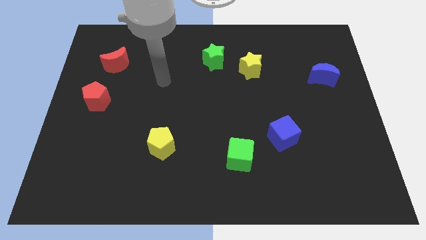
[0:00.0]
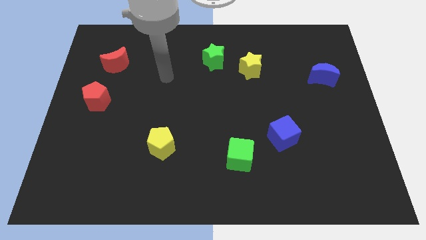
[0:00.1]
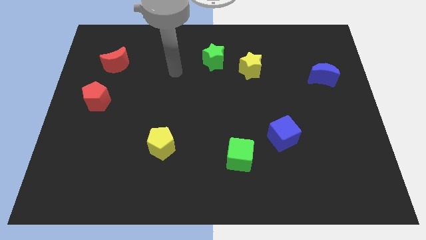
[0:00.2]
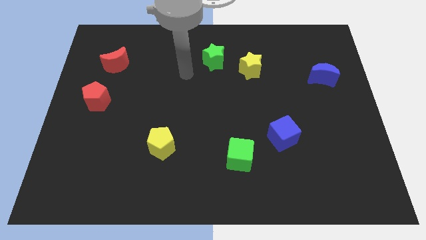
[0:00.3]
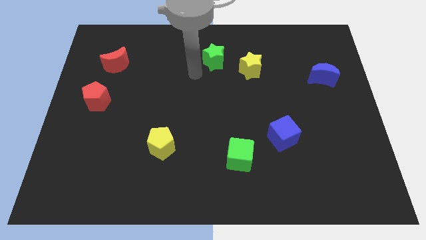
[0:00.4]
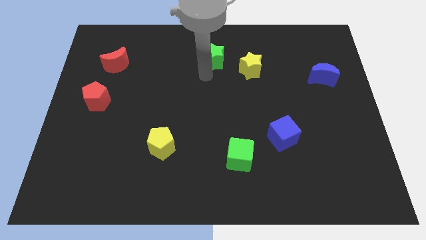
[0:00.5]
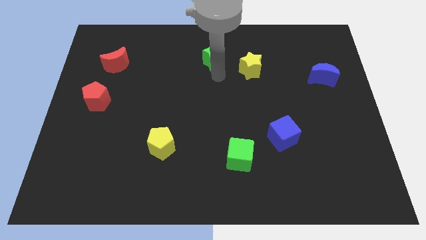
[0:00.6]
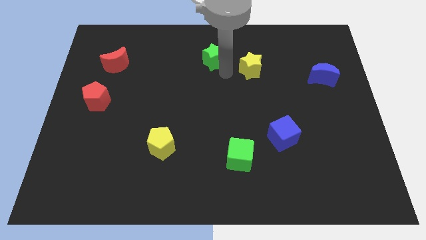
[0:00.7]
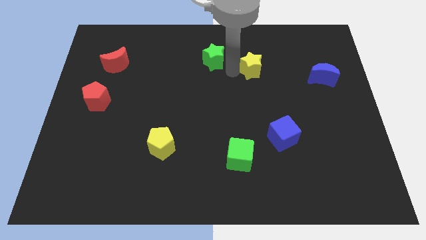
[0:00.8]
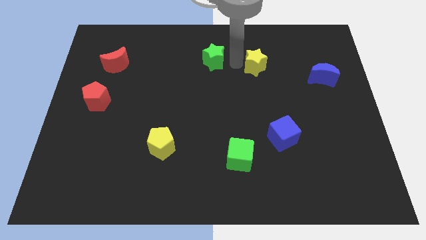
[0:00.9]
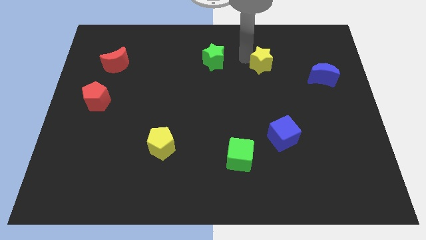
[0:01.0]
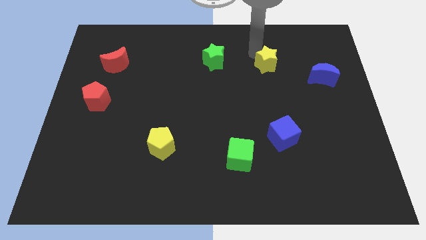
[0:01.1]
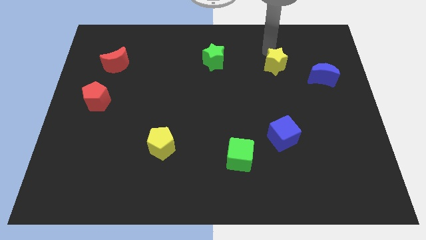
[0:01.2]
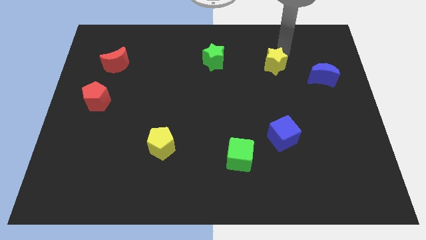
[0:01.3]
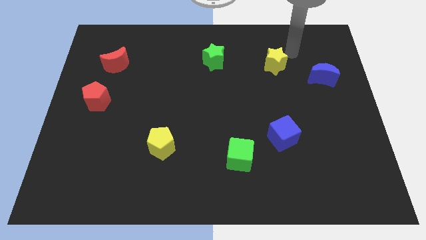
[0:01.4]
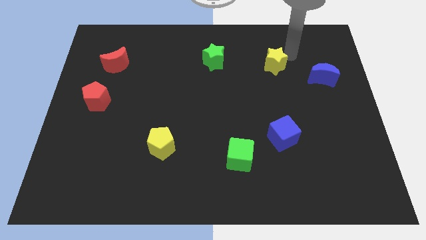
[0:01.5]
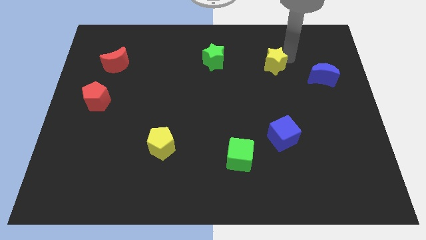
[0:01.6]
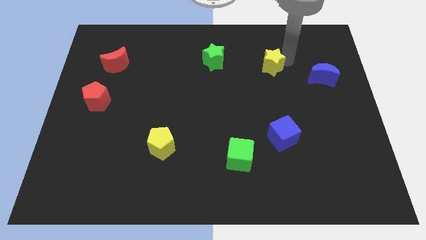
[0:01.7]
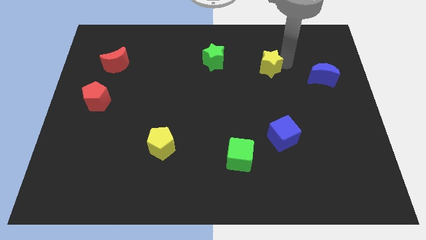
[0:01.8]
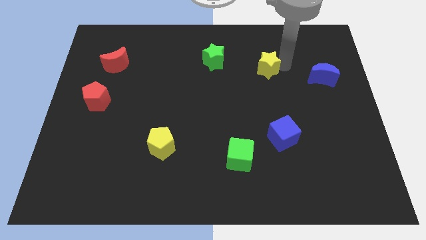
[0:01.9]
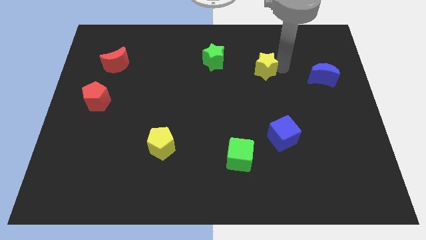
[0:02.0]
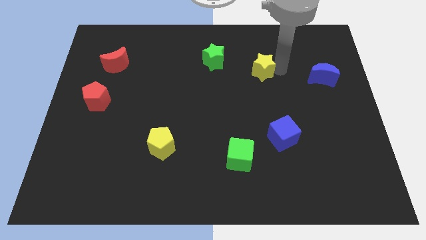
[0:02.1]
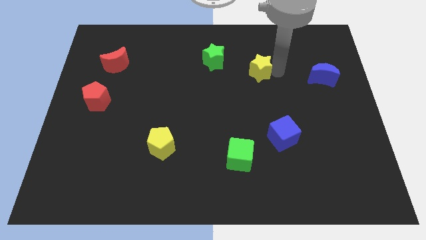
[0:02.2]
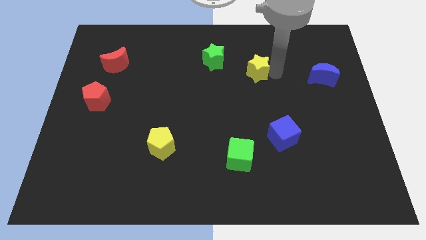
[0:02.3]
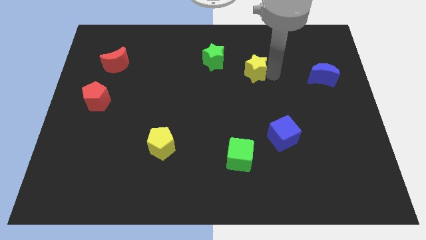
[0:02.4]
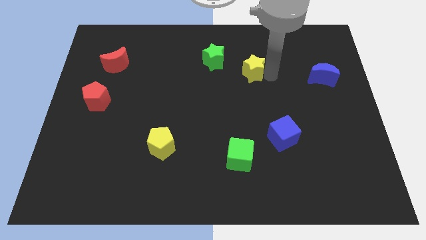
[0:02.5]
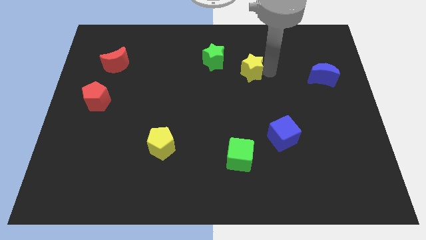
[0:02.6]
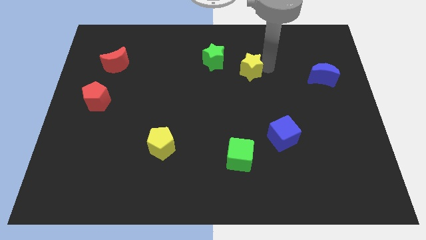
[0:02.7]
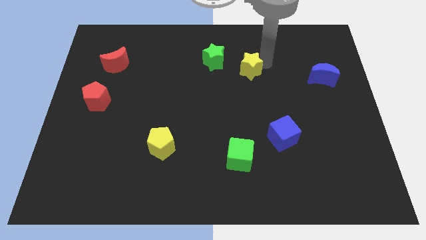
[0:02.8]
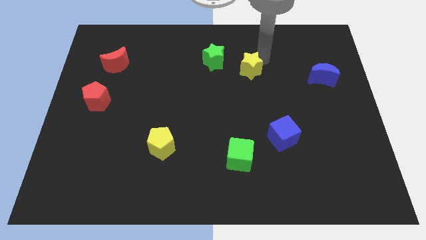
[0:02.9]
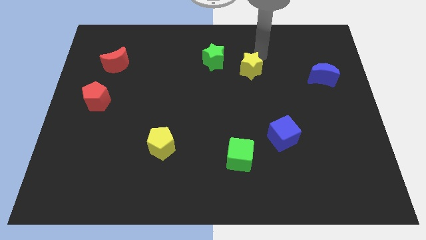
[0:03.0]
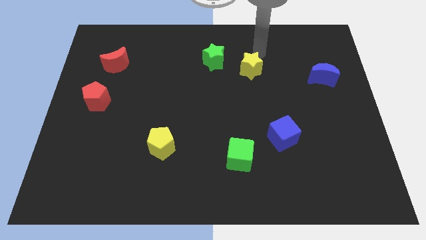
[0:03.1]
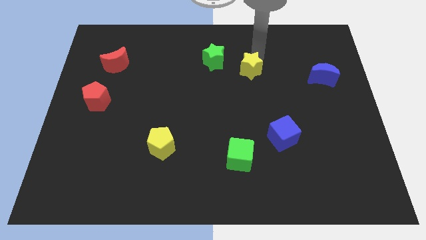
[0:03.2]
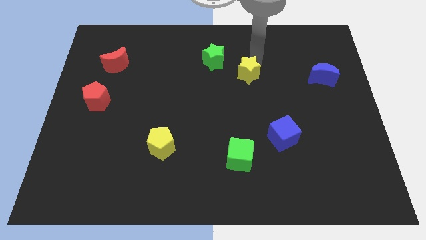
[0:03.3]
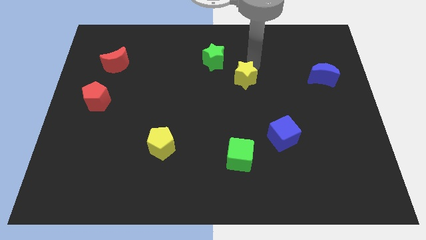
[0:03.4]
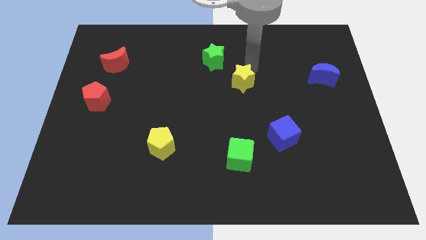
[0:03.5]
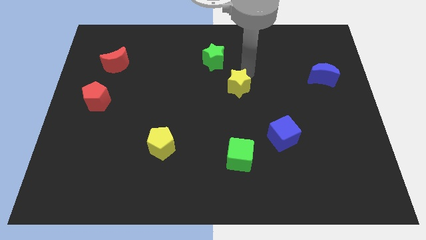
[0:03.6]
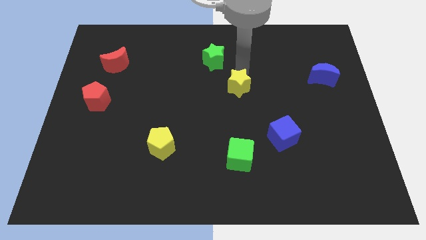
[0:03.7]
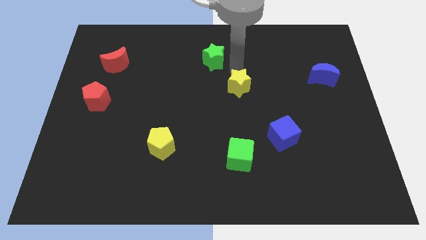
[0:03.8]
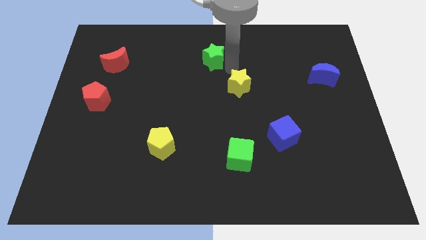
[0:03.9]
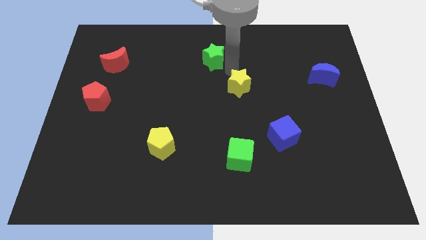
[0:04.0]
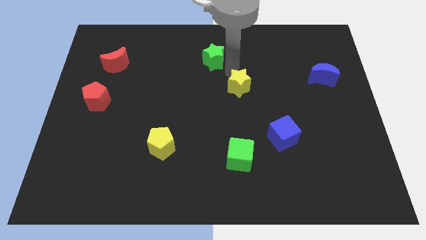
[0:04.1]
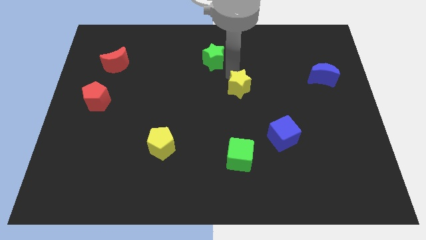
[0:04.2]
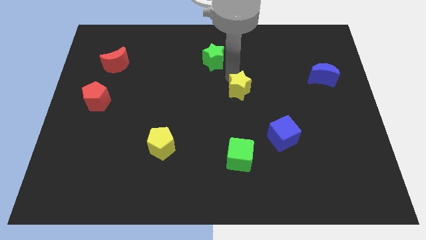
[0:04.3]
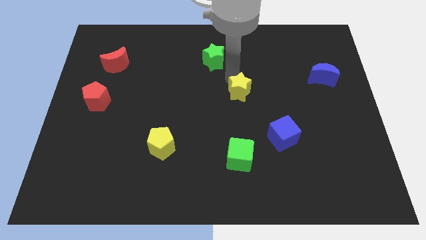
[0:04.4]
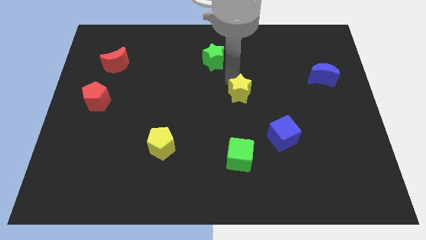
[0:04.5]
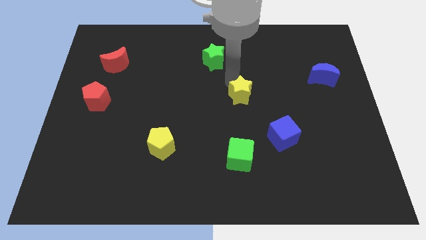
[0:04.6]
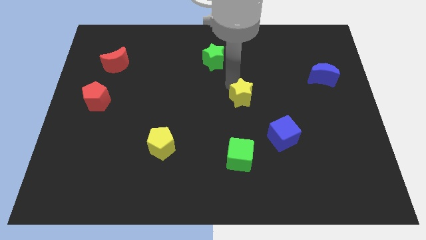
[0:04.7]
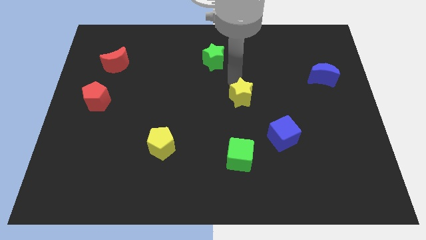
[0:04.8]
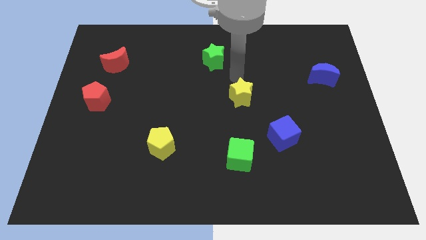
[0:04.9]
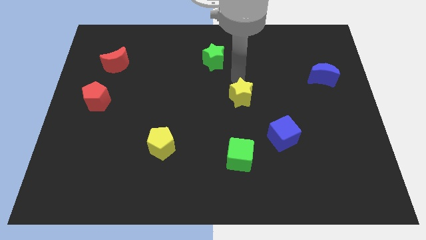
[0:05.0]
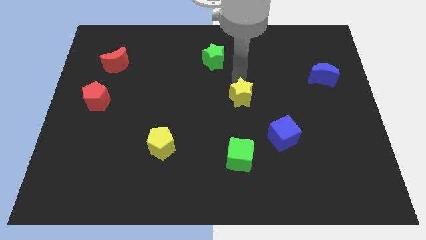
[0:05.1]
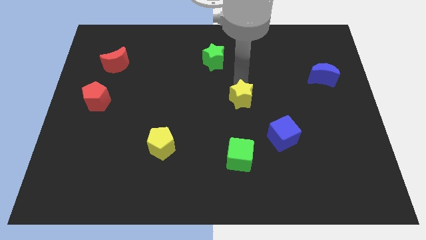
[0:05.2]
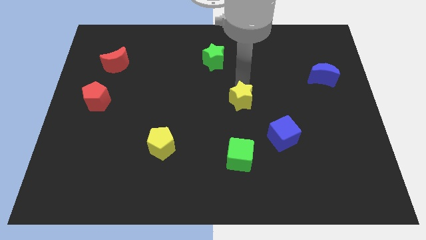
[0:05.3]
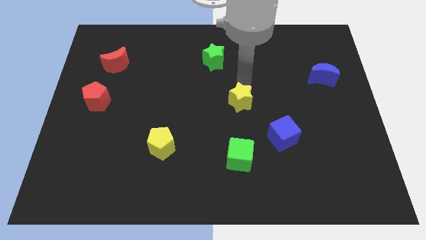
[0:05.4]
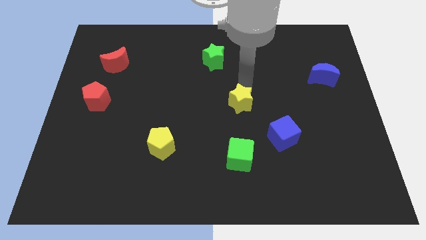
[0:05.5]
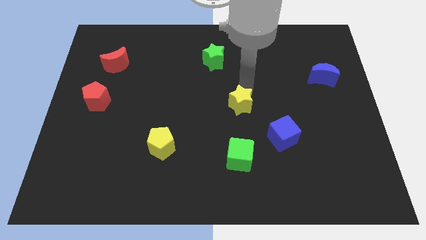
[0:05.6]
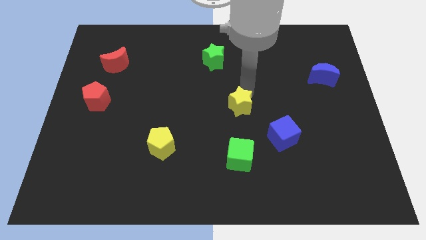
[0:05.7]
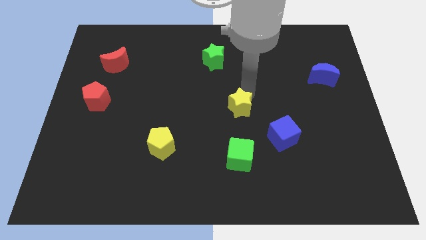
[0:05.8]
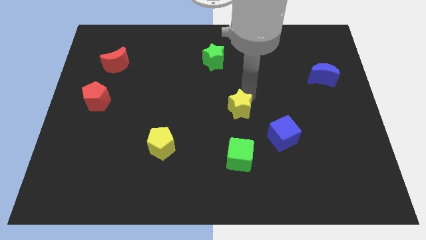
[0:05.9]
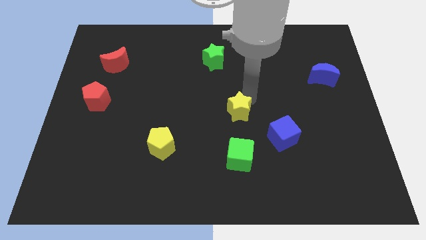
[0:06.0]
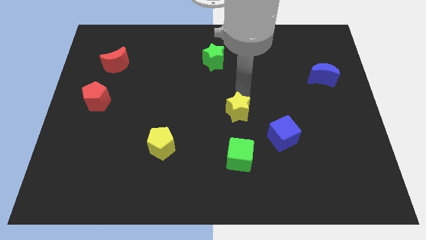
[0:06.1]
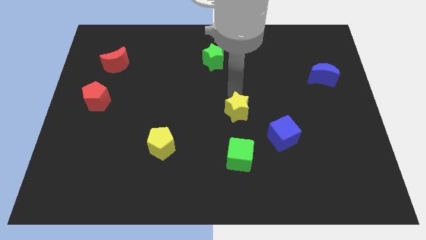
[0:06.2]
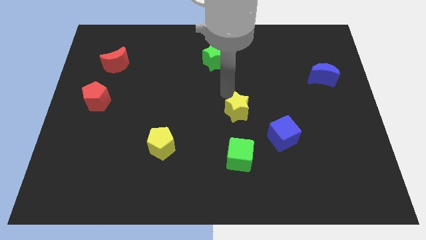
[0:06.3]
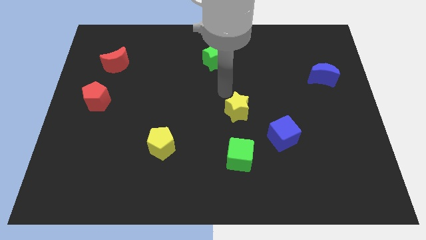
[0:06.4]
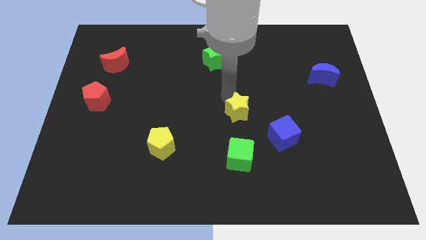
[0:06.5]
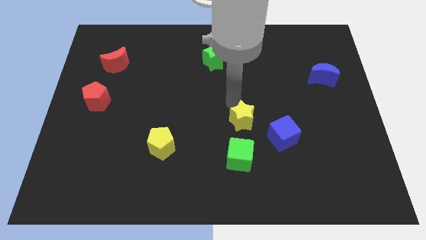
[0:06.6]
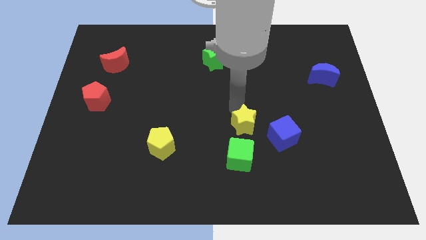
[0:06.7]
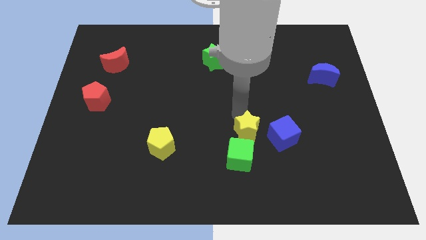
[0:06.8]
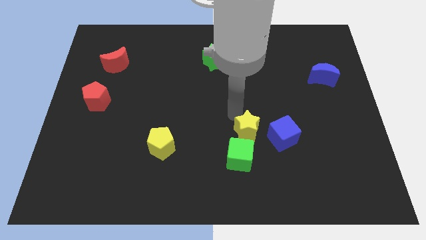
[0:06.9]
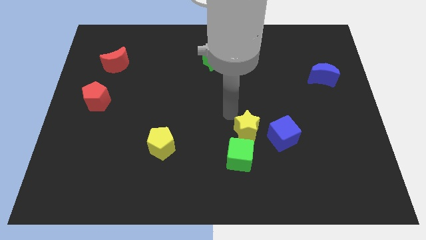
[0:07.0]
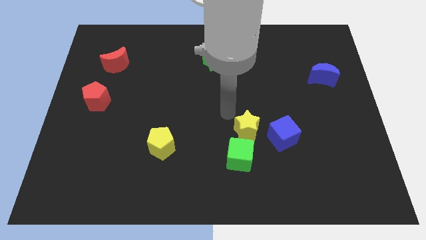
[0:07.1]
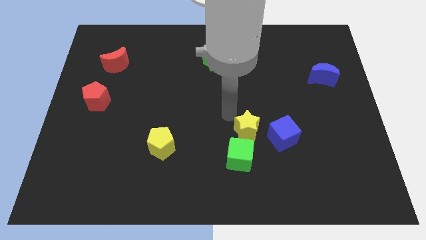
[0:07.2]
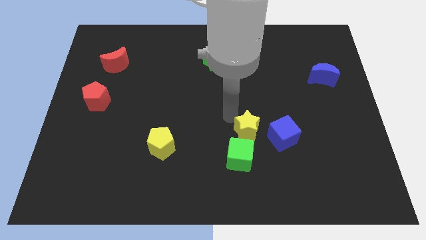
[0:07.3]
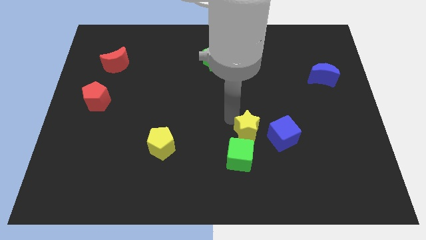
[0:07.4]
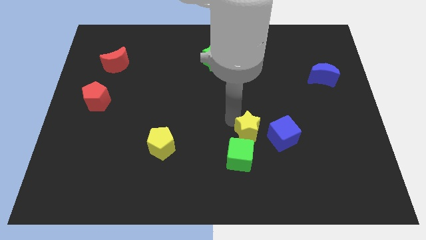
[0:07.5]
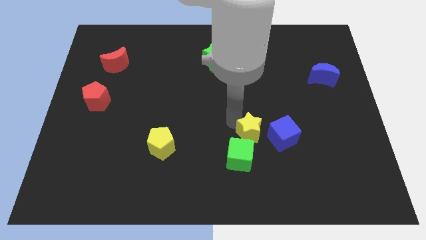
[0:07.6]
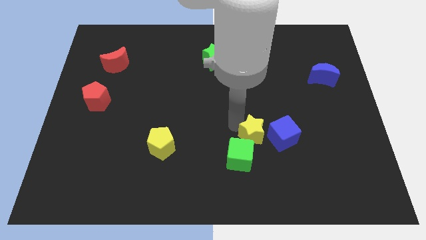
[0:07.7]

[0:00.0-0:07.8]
slide the yellow star down

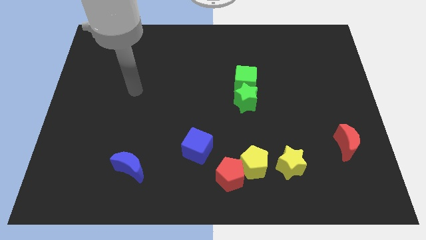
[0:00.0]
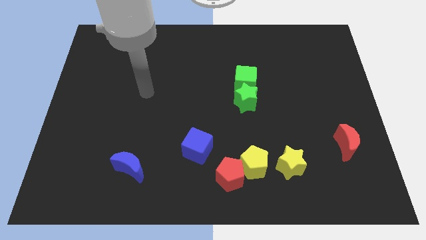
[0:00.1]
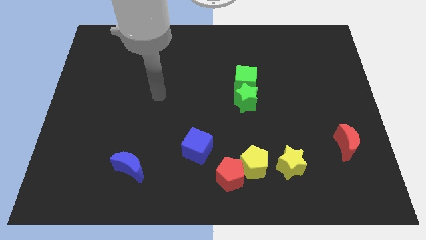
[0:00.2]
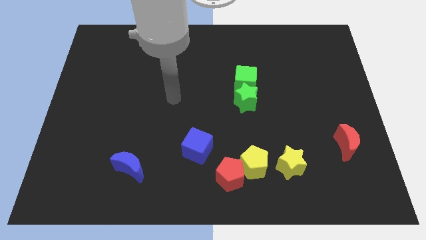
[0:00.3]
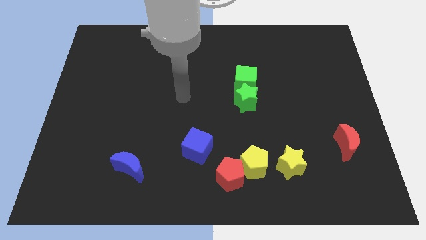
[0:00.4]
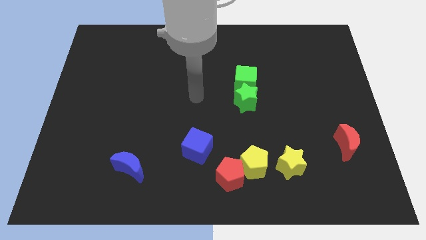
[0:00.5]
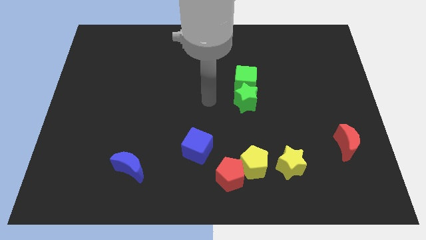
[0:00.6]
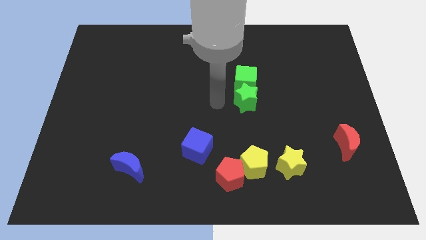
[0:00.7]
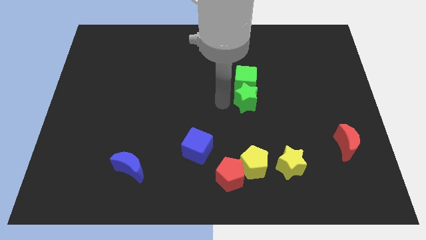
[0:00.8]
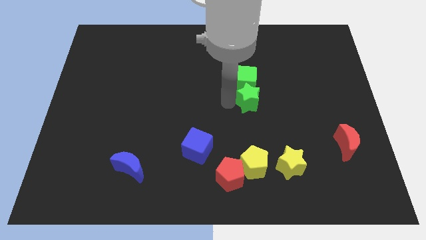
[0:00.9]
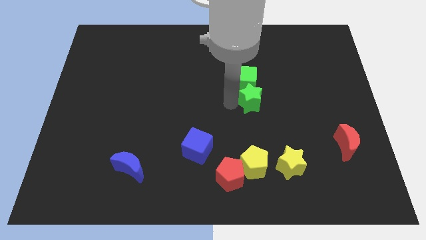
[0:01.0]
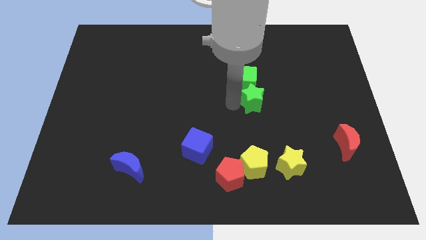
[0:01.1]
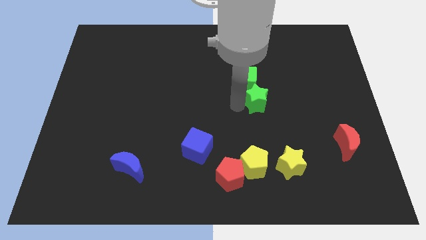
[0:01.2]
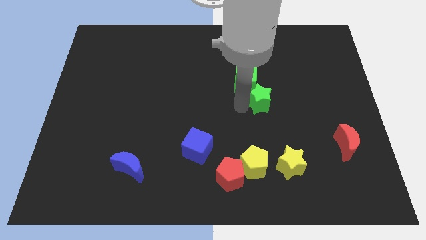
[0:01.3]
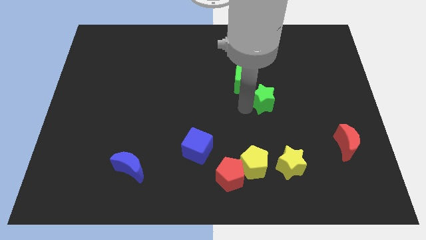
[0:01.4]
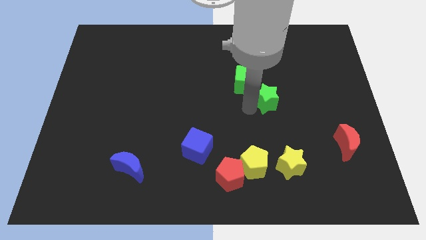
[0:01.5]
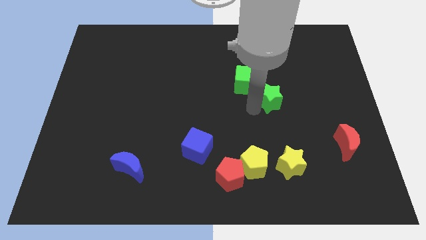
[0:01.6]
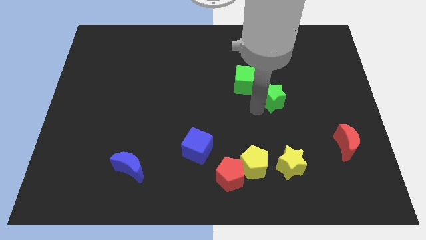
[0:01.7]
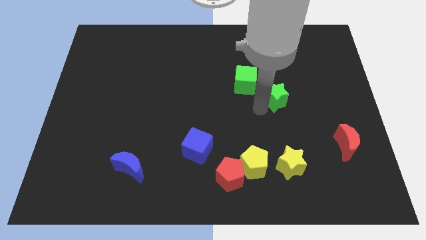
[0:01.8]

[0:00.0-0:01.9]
move the green star a bit to the right
